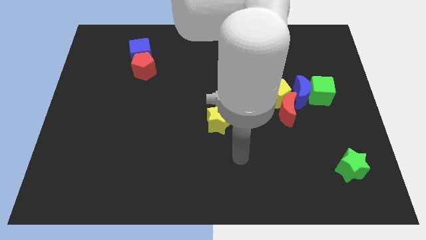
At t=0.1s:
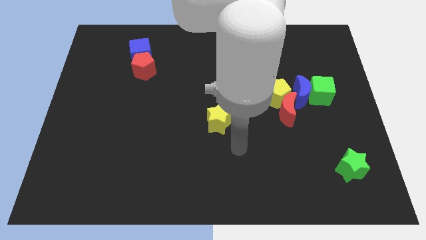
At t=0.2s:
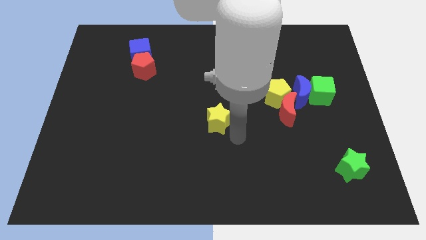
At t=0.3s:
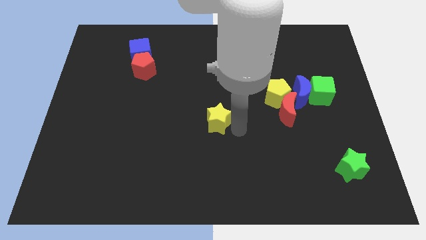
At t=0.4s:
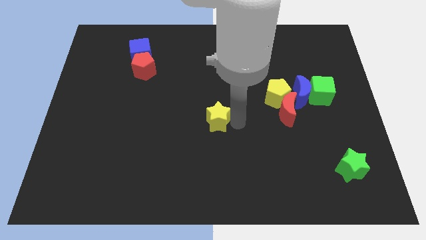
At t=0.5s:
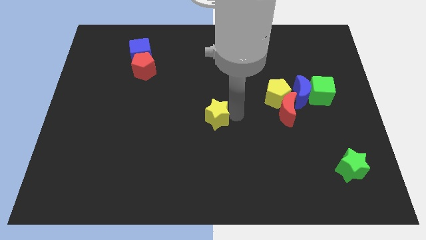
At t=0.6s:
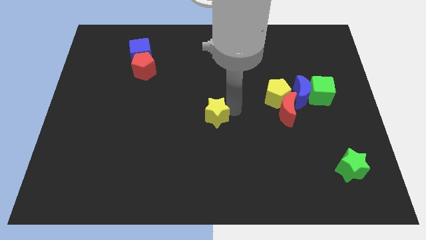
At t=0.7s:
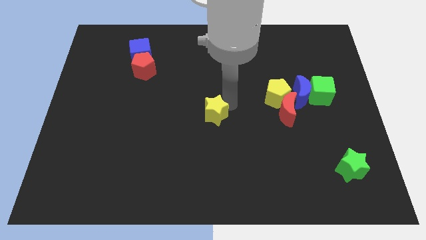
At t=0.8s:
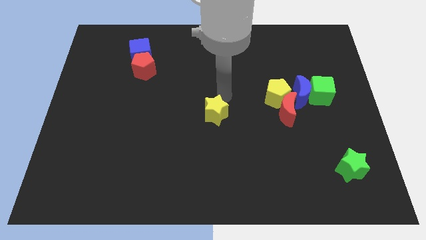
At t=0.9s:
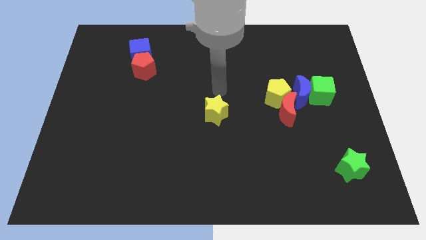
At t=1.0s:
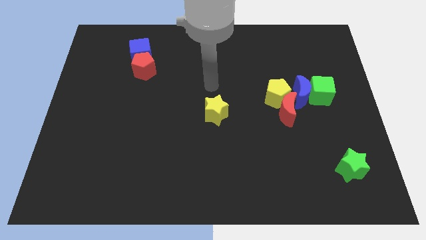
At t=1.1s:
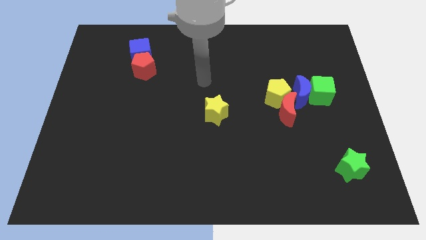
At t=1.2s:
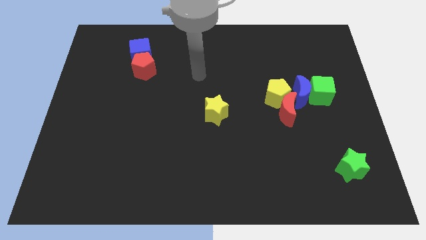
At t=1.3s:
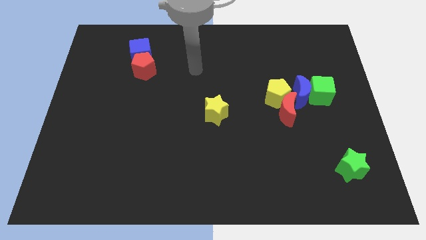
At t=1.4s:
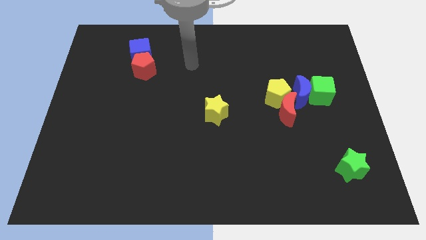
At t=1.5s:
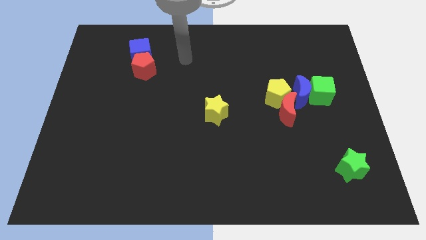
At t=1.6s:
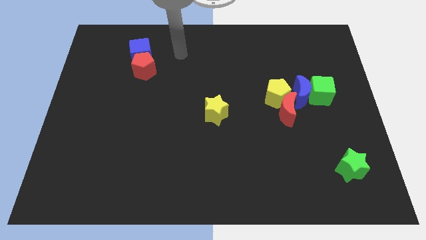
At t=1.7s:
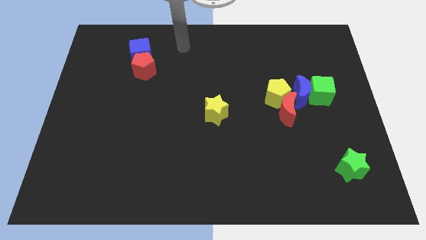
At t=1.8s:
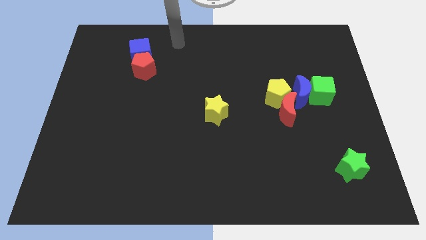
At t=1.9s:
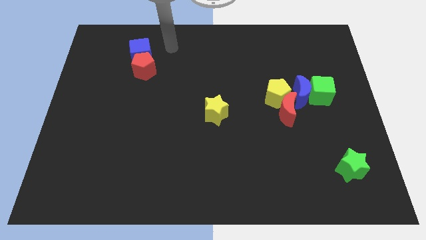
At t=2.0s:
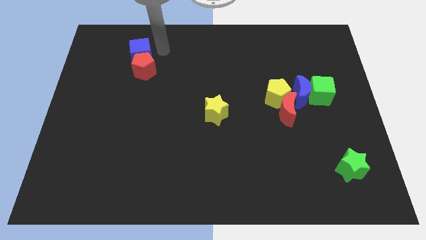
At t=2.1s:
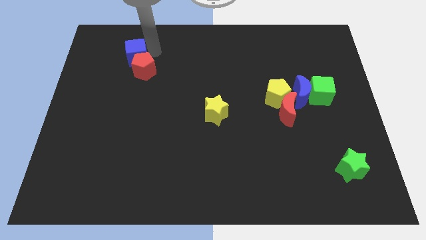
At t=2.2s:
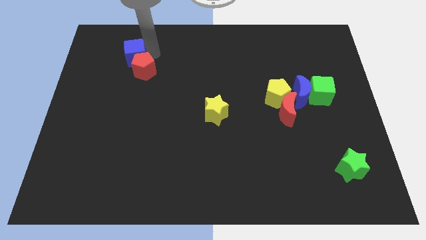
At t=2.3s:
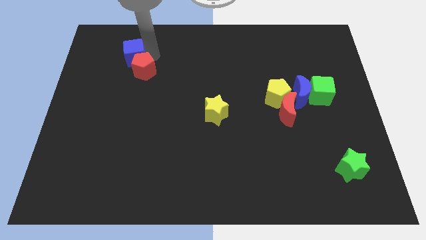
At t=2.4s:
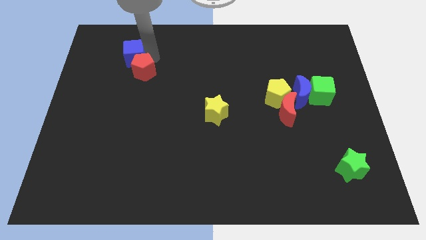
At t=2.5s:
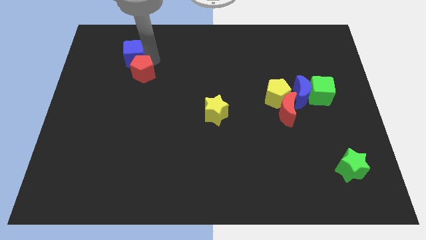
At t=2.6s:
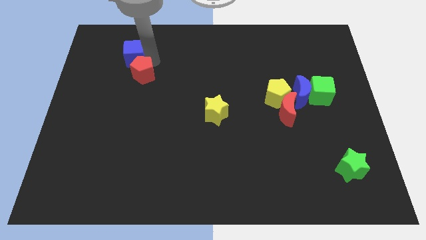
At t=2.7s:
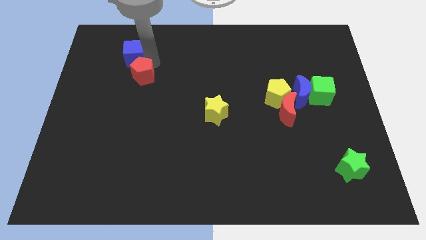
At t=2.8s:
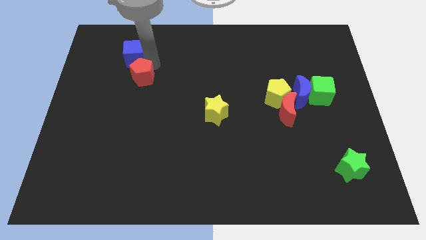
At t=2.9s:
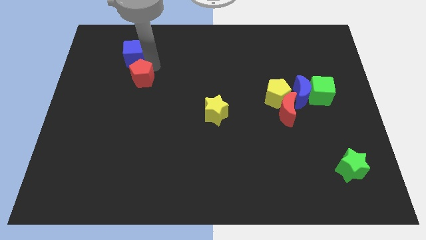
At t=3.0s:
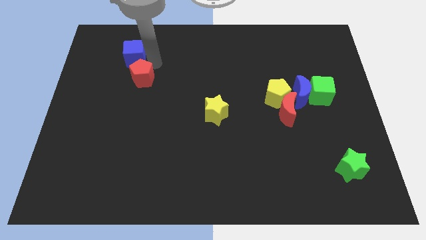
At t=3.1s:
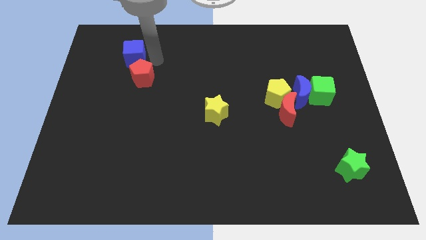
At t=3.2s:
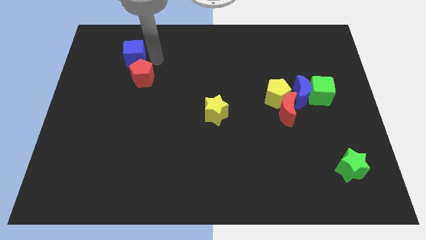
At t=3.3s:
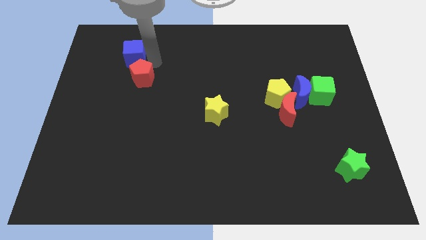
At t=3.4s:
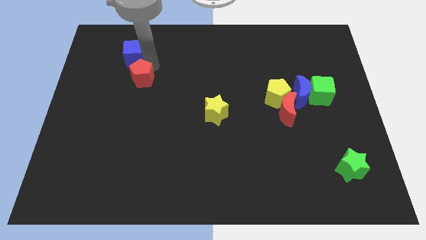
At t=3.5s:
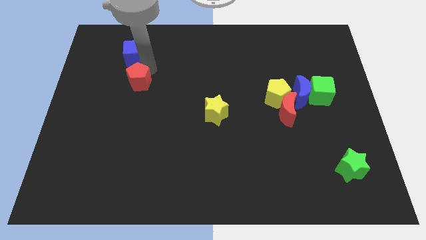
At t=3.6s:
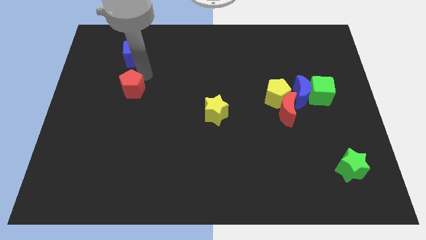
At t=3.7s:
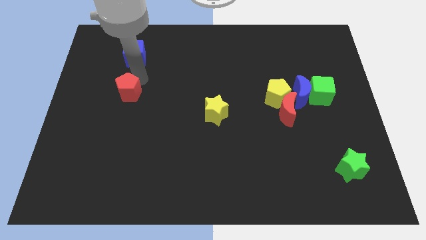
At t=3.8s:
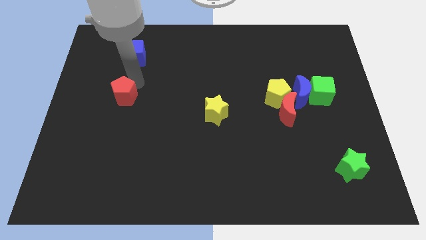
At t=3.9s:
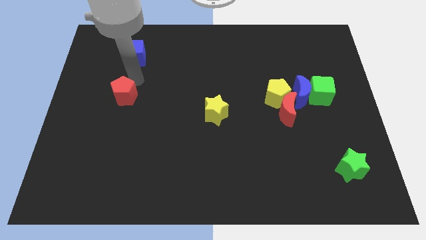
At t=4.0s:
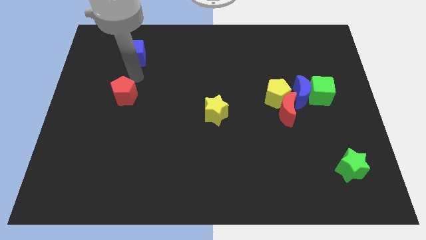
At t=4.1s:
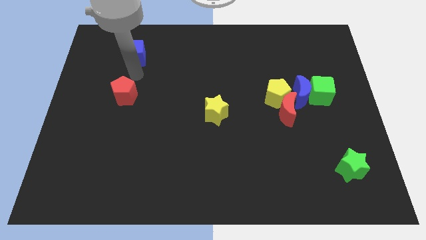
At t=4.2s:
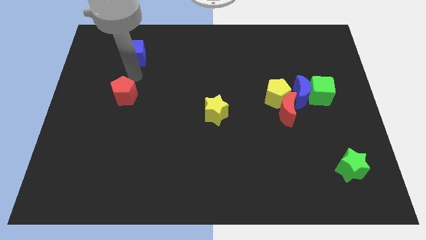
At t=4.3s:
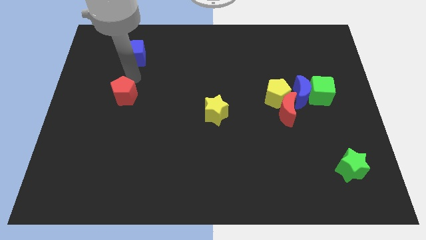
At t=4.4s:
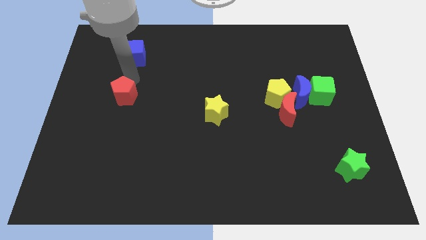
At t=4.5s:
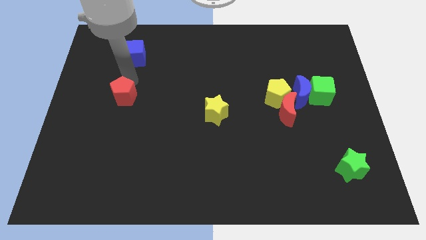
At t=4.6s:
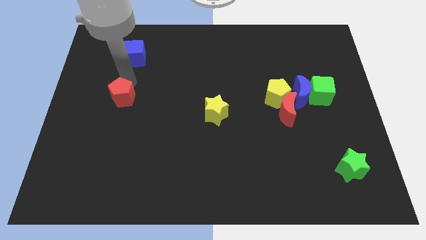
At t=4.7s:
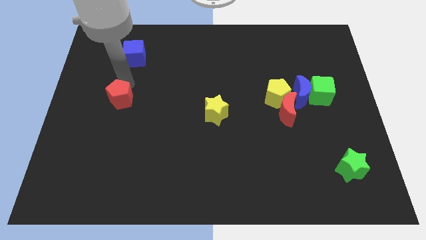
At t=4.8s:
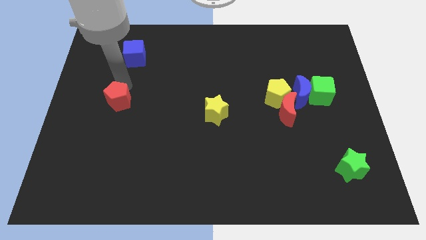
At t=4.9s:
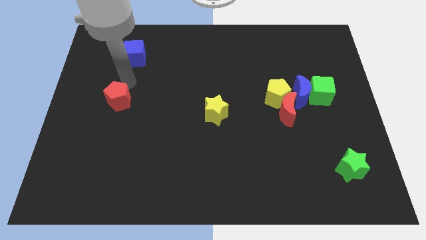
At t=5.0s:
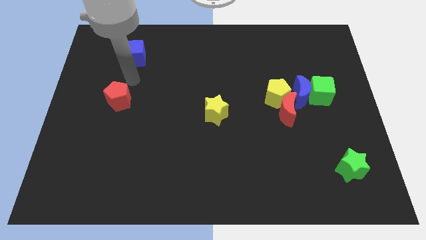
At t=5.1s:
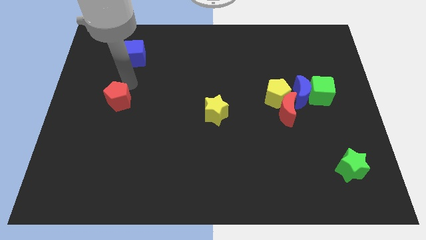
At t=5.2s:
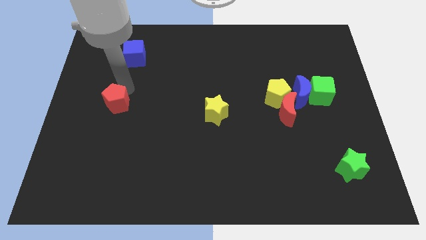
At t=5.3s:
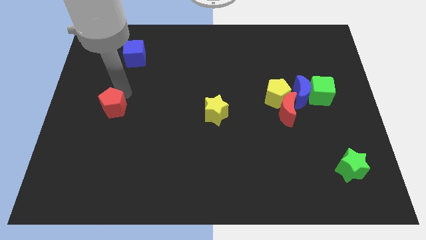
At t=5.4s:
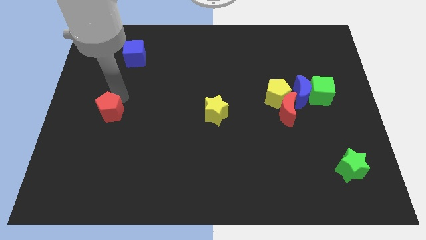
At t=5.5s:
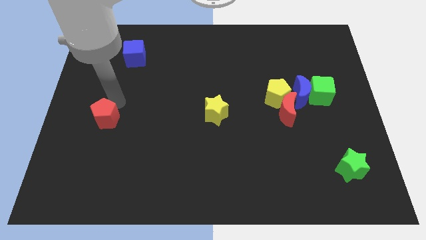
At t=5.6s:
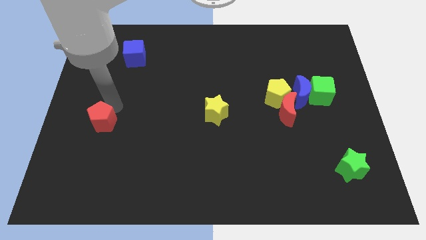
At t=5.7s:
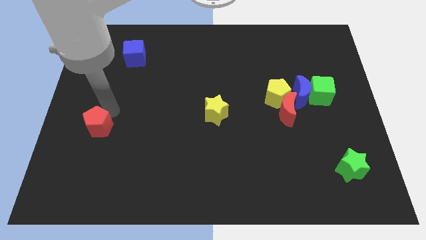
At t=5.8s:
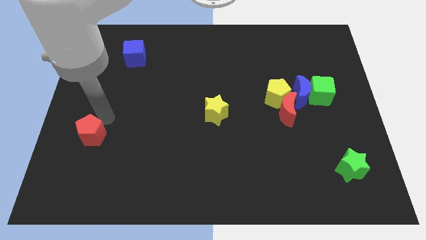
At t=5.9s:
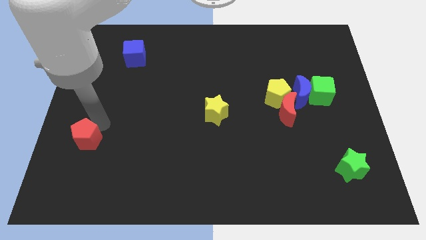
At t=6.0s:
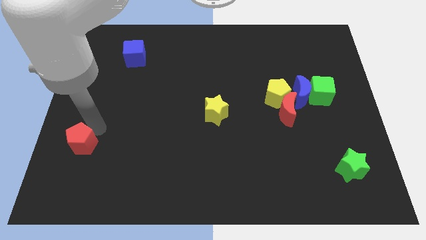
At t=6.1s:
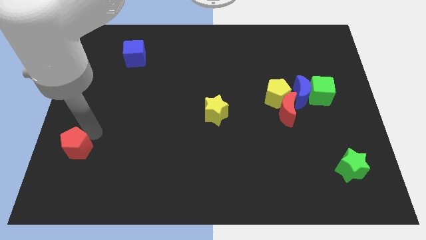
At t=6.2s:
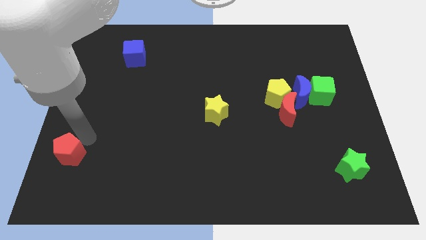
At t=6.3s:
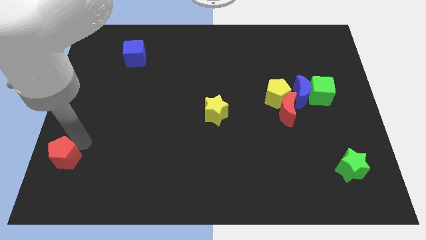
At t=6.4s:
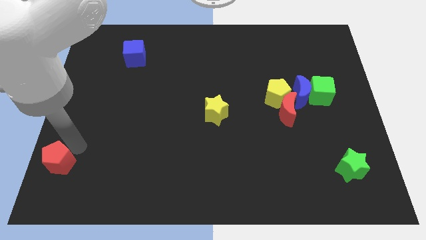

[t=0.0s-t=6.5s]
move the red pentagon to the bottom left of the board

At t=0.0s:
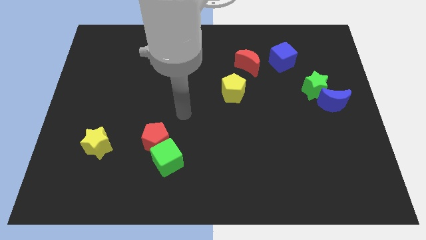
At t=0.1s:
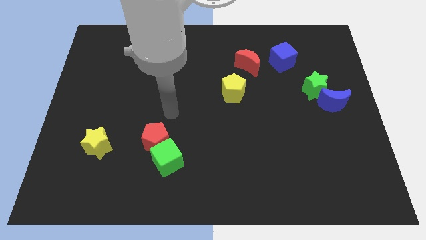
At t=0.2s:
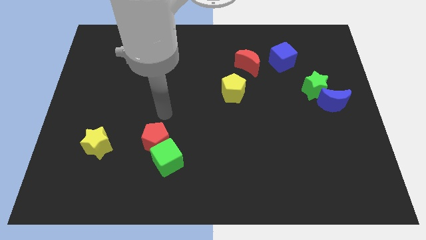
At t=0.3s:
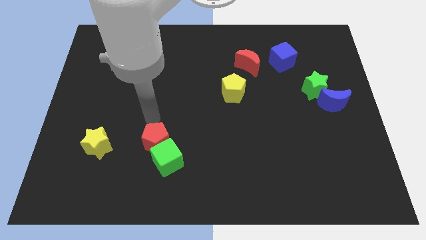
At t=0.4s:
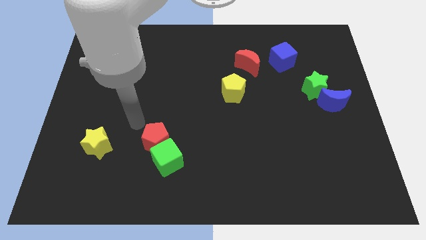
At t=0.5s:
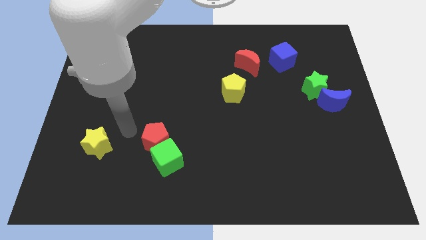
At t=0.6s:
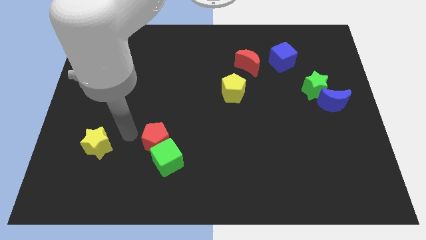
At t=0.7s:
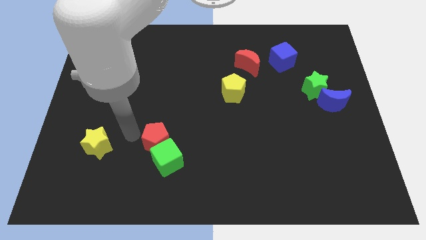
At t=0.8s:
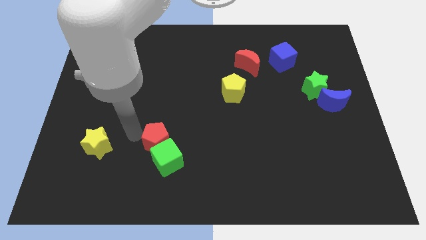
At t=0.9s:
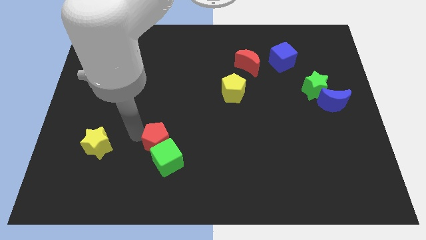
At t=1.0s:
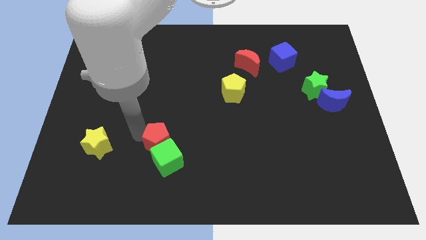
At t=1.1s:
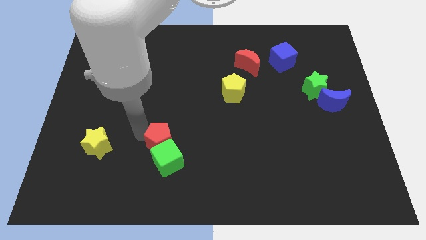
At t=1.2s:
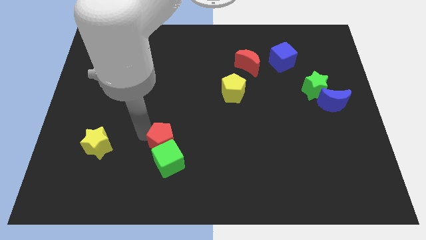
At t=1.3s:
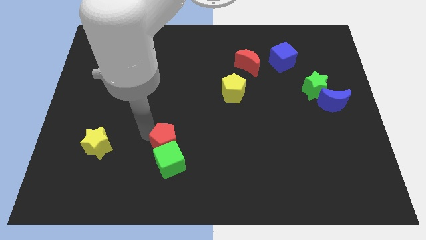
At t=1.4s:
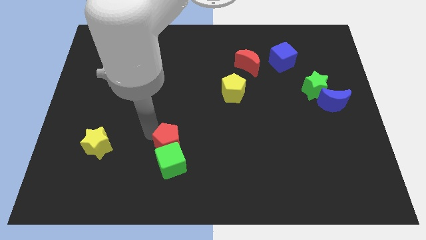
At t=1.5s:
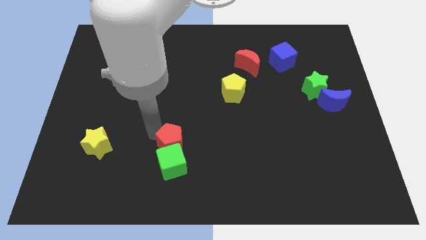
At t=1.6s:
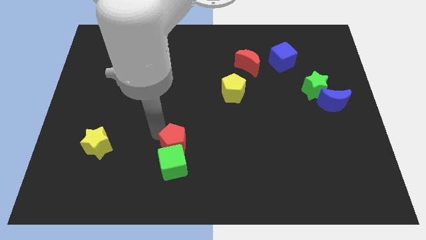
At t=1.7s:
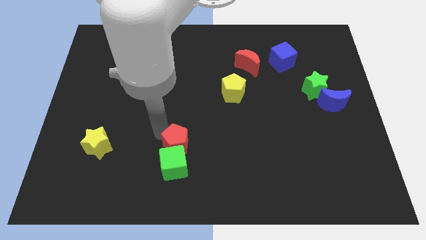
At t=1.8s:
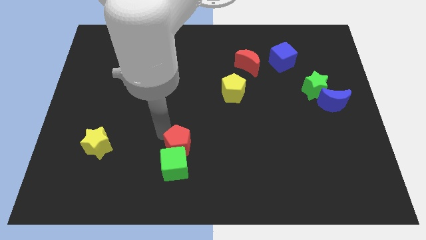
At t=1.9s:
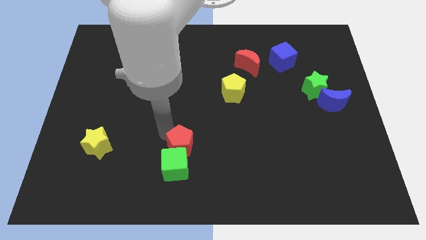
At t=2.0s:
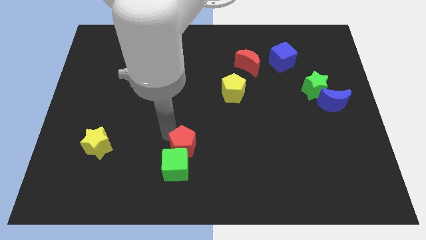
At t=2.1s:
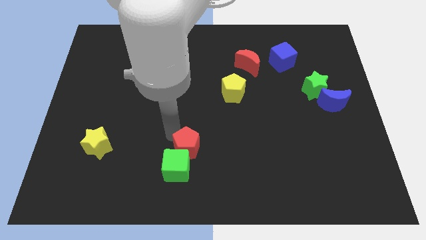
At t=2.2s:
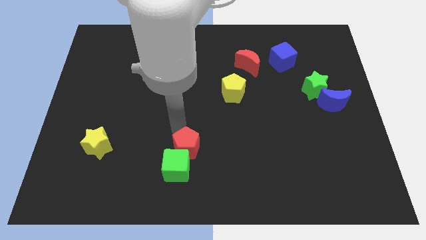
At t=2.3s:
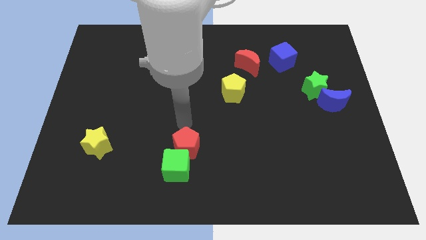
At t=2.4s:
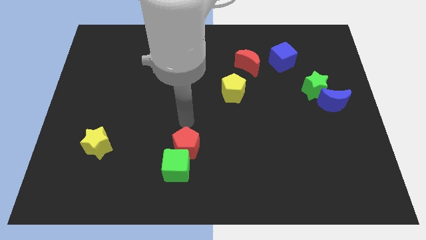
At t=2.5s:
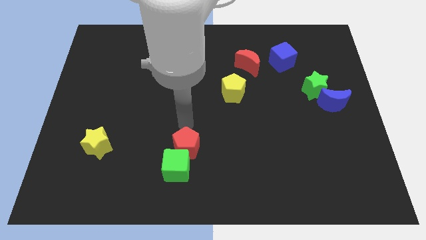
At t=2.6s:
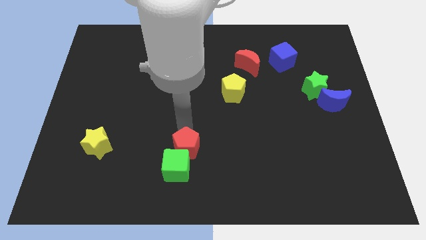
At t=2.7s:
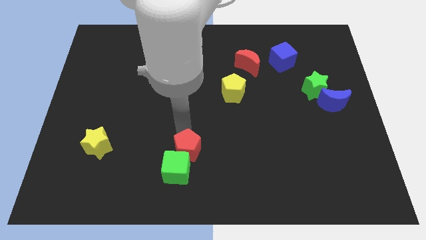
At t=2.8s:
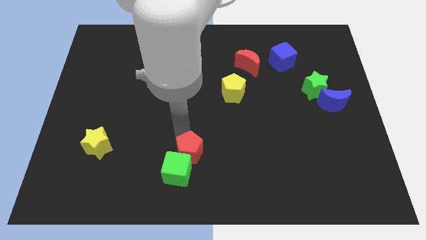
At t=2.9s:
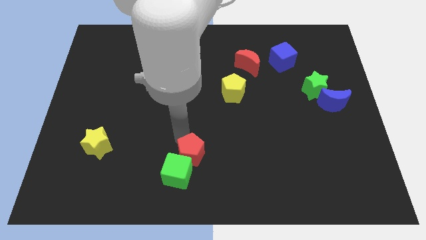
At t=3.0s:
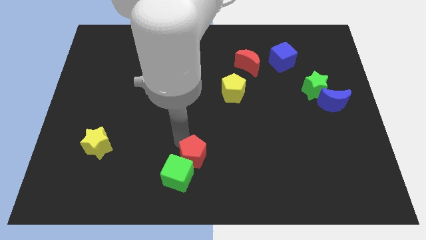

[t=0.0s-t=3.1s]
slide the red pentagon to the bottom side
